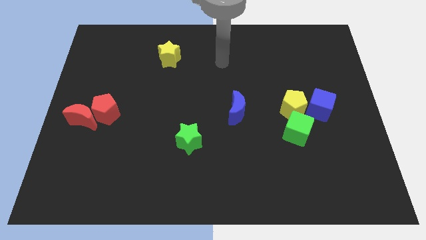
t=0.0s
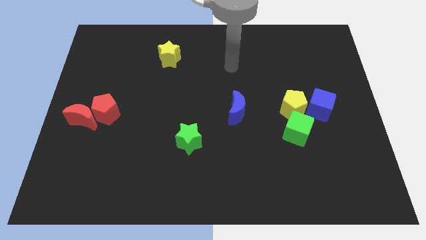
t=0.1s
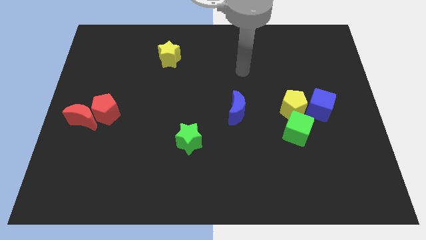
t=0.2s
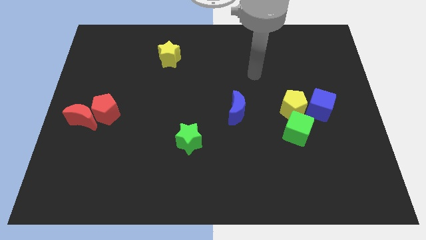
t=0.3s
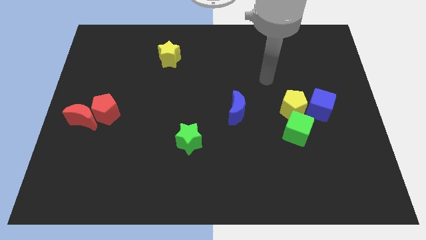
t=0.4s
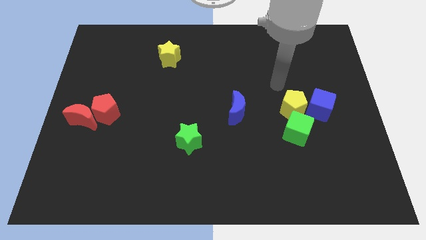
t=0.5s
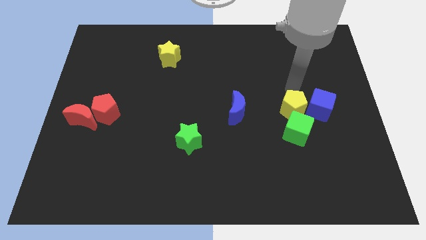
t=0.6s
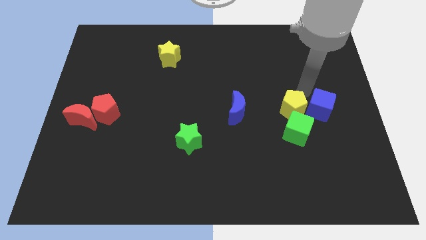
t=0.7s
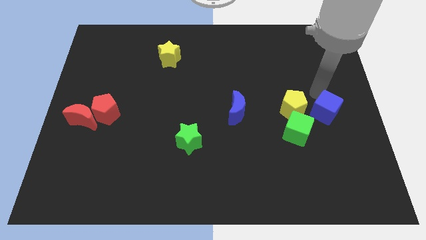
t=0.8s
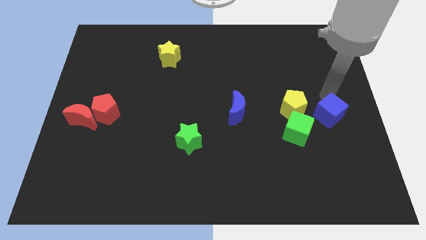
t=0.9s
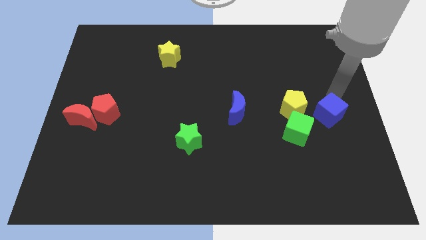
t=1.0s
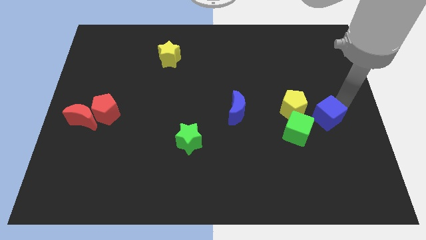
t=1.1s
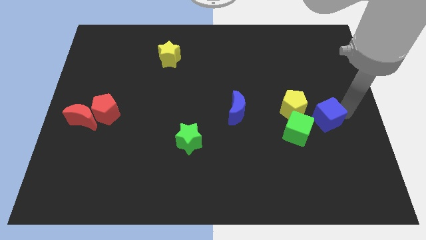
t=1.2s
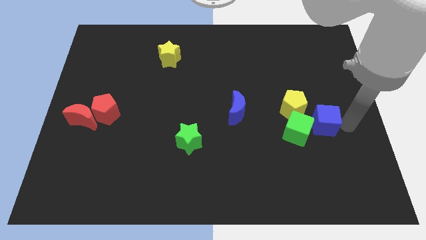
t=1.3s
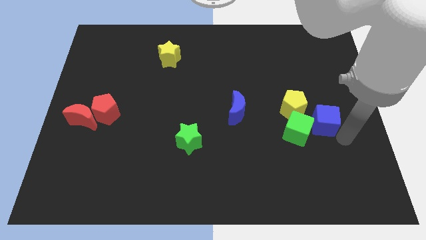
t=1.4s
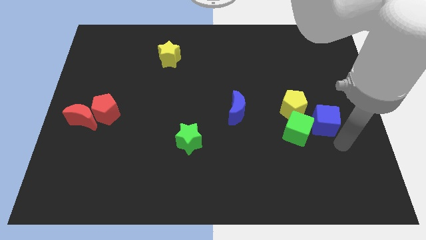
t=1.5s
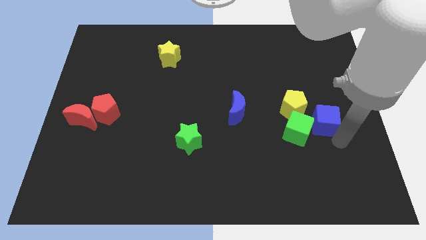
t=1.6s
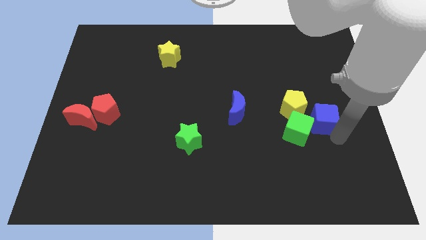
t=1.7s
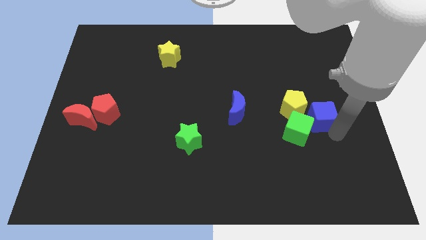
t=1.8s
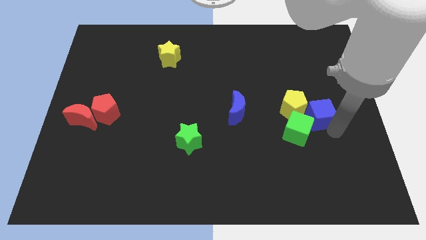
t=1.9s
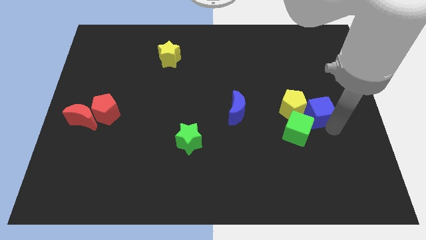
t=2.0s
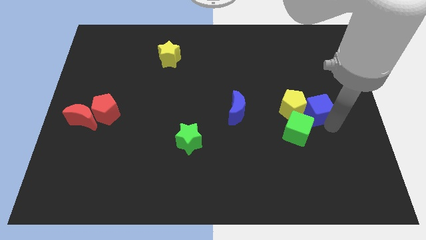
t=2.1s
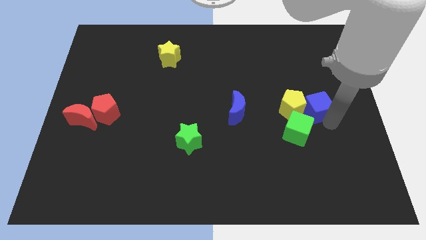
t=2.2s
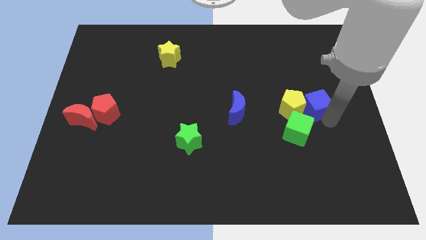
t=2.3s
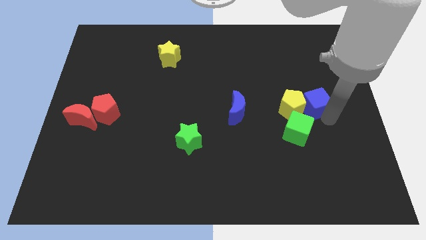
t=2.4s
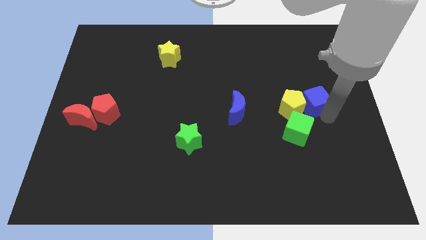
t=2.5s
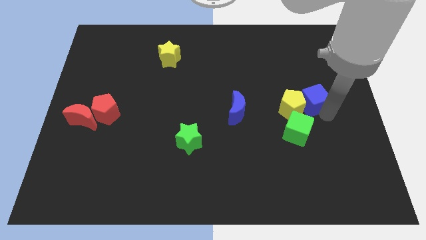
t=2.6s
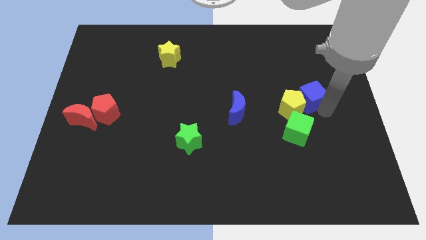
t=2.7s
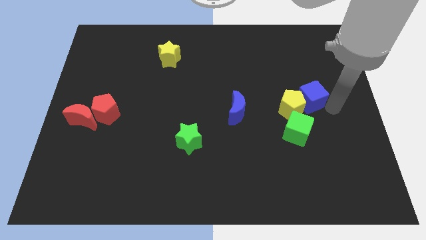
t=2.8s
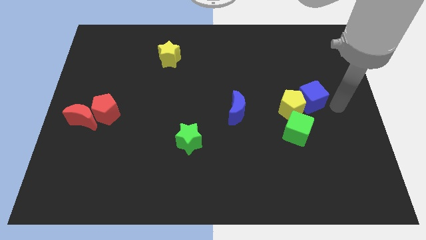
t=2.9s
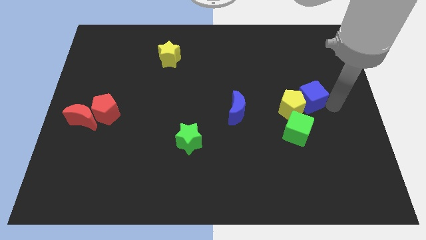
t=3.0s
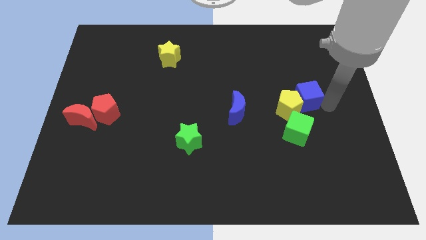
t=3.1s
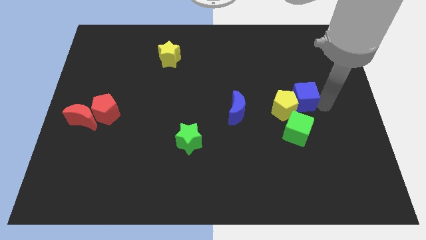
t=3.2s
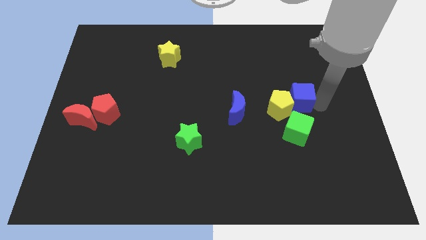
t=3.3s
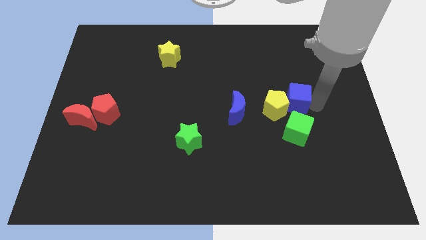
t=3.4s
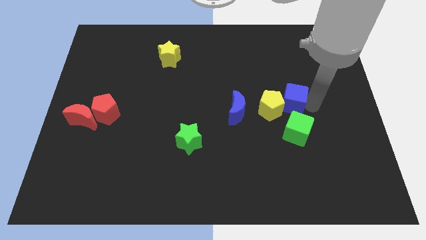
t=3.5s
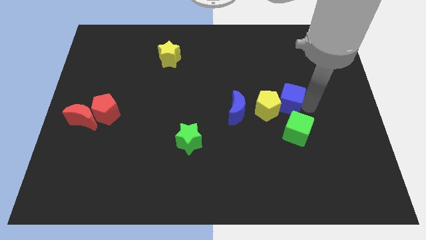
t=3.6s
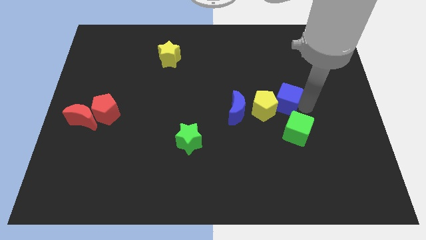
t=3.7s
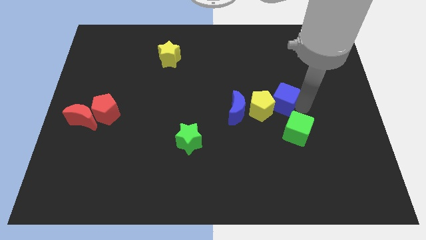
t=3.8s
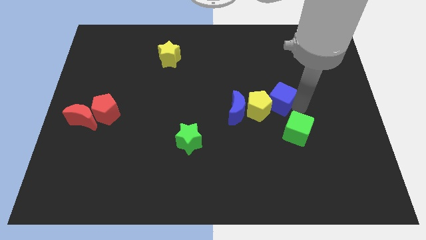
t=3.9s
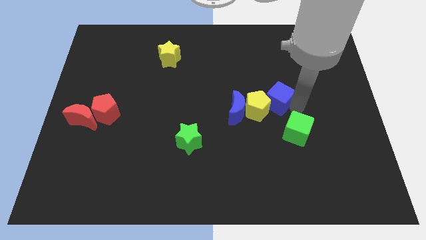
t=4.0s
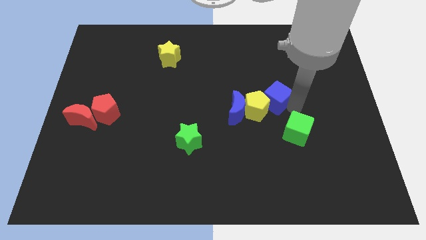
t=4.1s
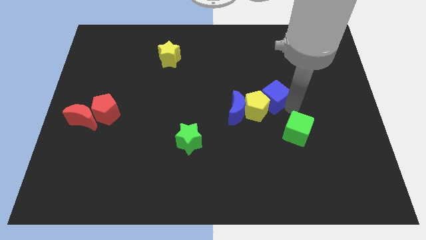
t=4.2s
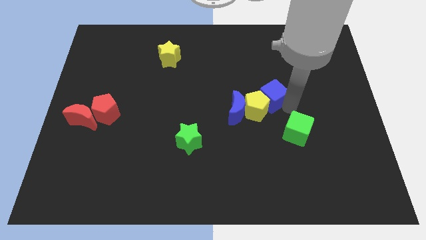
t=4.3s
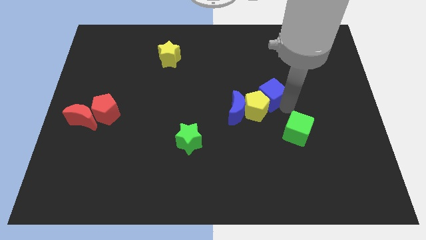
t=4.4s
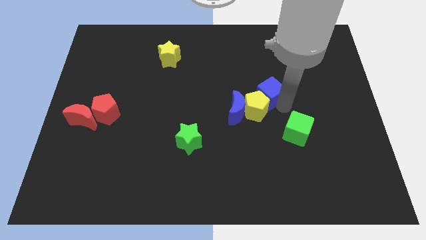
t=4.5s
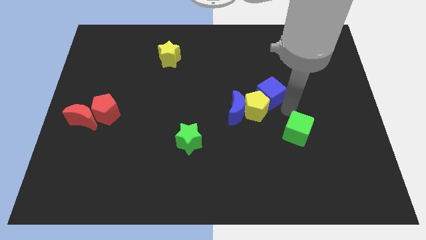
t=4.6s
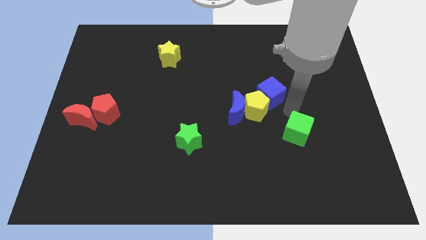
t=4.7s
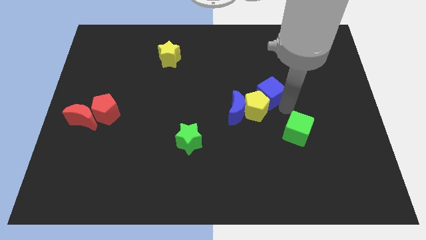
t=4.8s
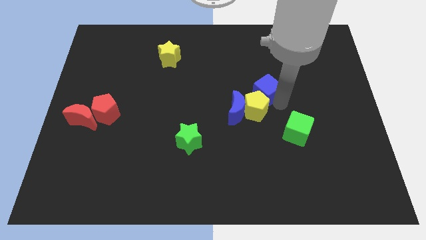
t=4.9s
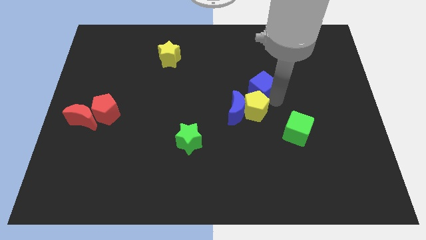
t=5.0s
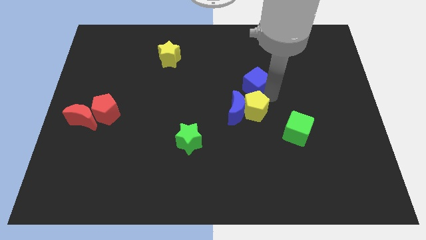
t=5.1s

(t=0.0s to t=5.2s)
put the blue cube to the top of the blue moon

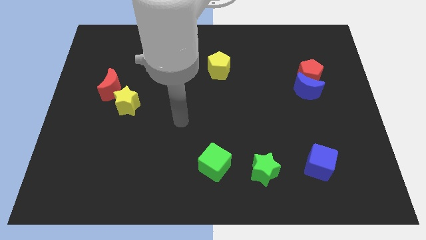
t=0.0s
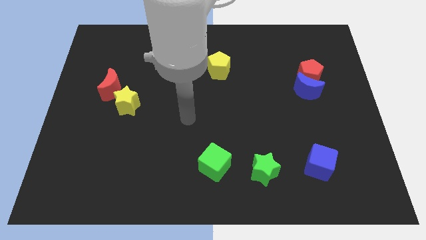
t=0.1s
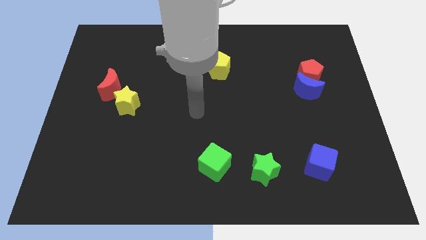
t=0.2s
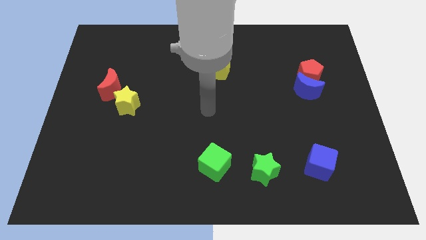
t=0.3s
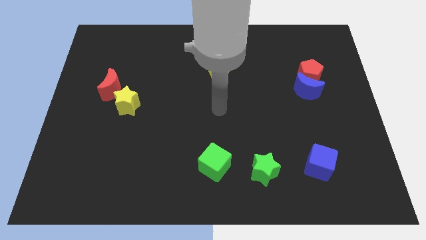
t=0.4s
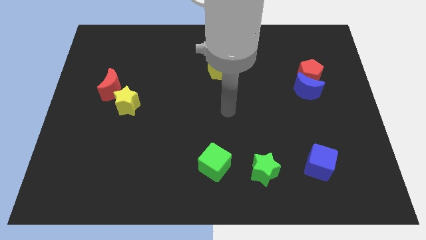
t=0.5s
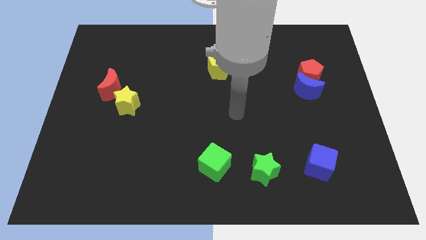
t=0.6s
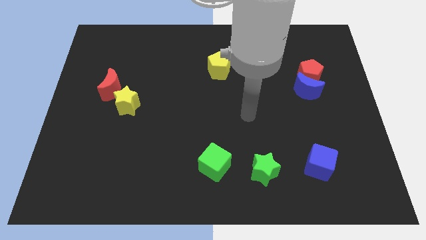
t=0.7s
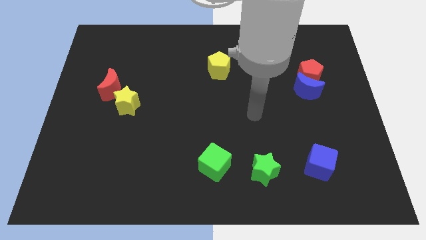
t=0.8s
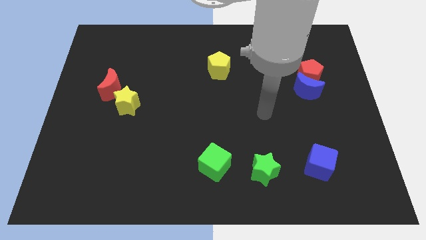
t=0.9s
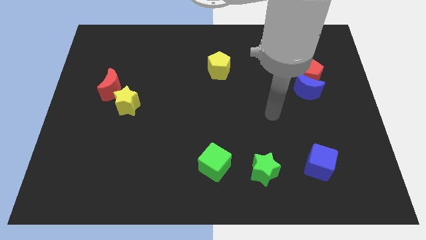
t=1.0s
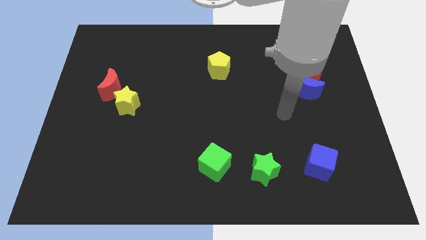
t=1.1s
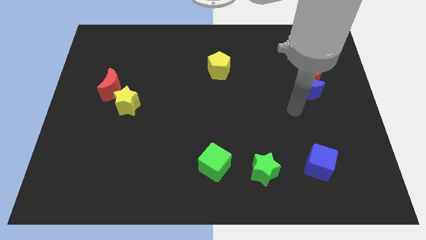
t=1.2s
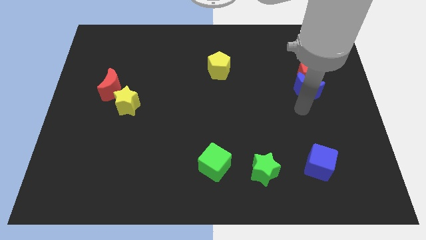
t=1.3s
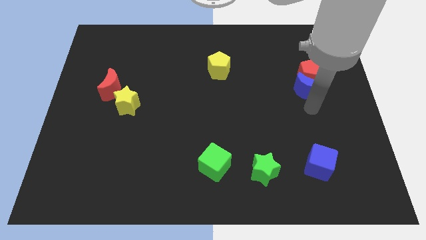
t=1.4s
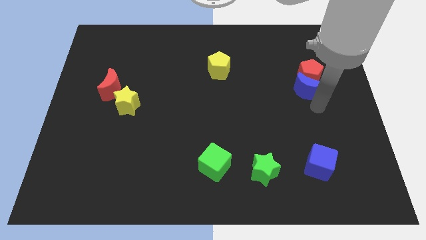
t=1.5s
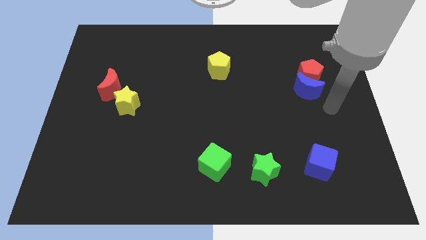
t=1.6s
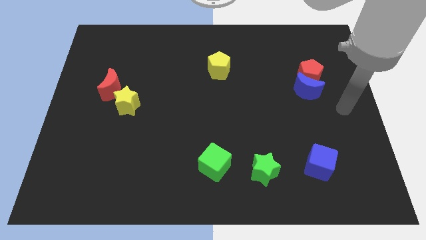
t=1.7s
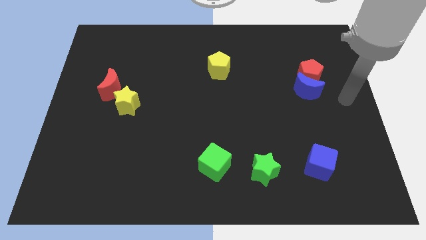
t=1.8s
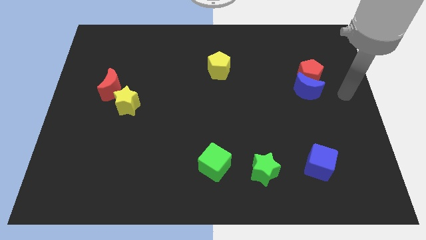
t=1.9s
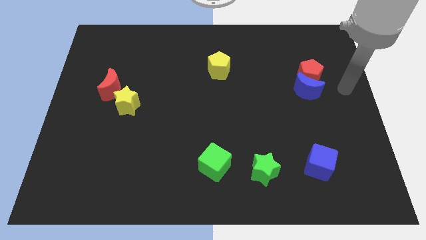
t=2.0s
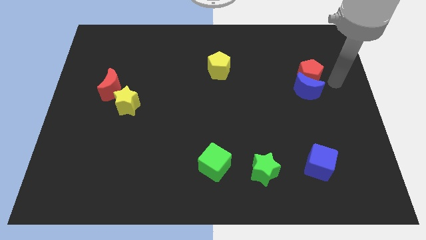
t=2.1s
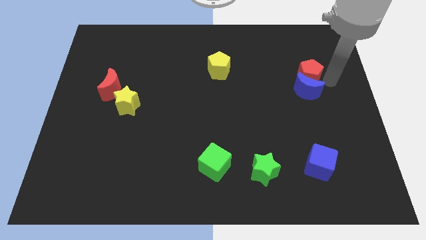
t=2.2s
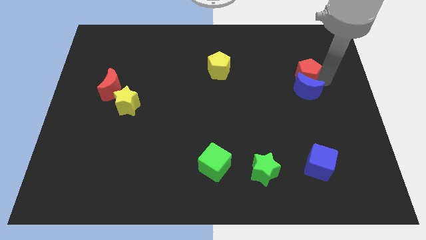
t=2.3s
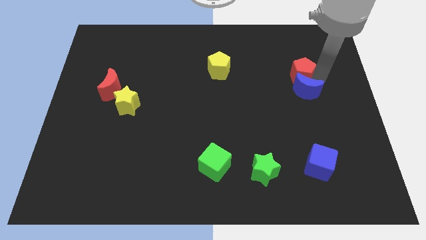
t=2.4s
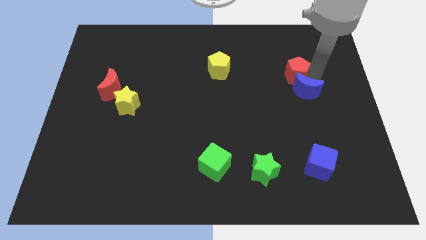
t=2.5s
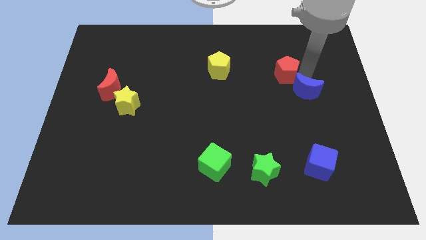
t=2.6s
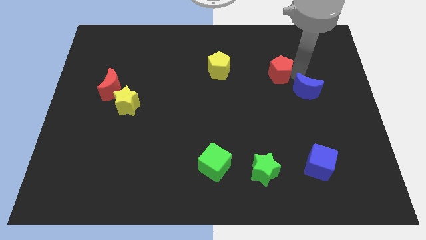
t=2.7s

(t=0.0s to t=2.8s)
put the red pentagon to the right of the yellow pentagon
